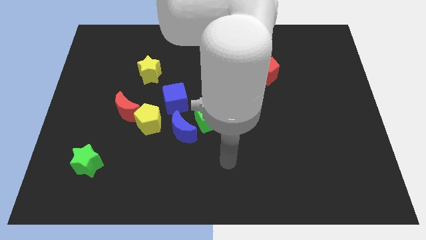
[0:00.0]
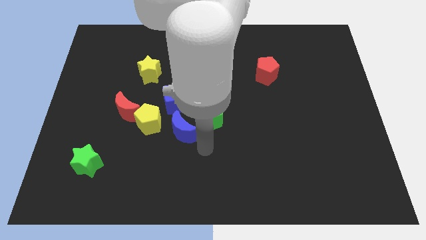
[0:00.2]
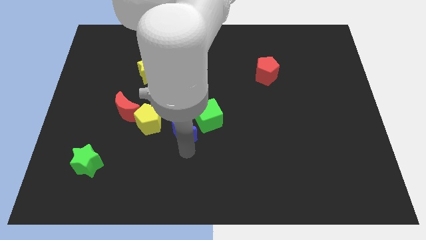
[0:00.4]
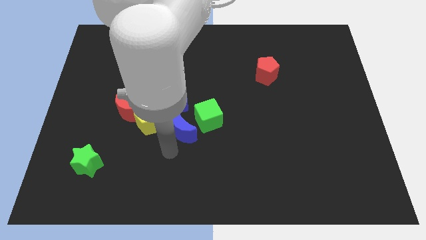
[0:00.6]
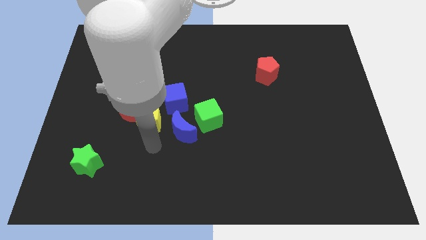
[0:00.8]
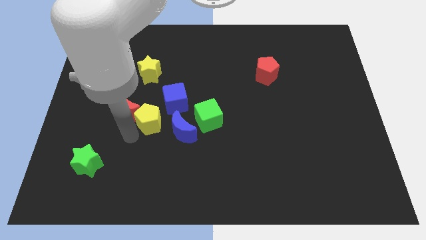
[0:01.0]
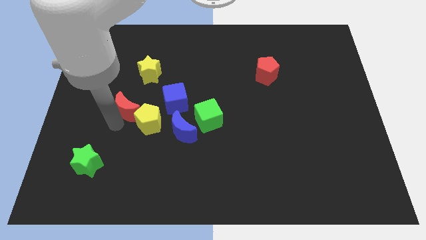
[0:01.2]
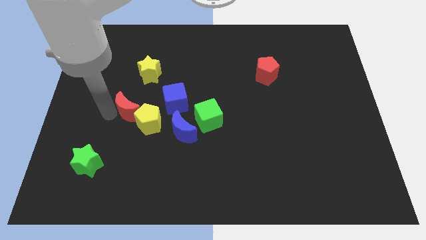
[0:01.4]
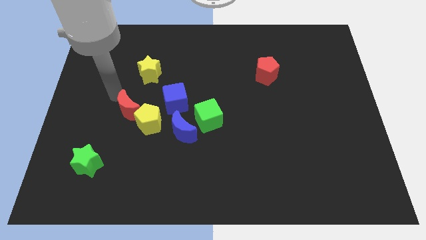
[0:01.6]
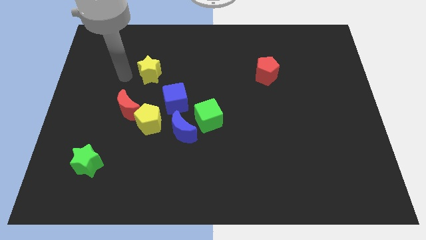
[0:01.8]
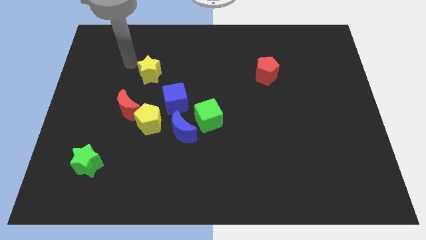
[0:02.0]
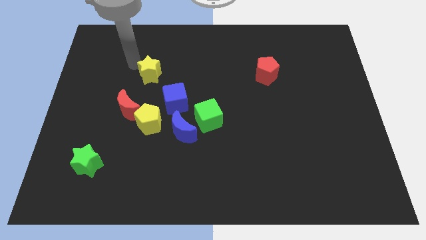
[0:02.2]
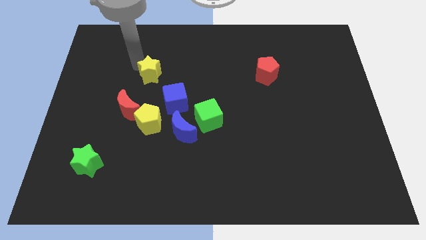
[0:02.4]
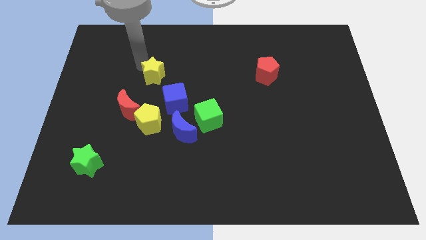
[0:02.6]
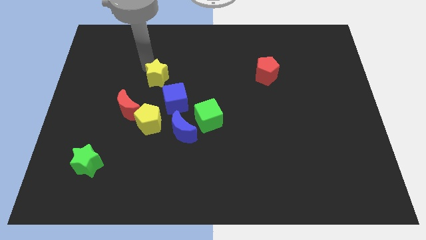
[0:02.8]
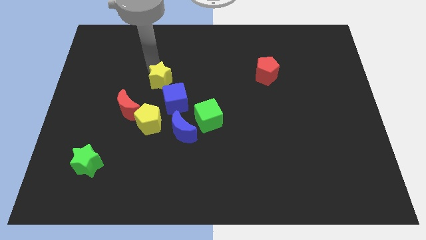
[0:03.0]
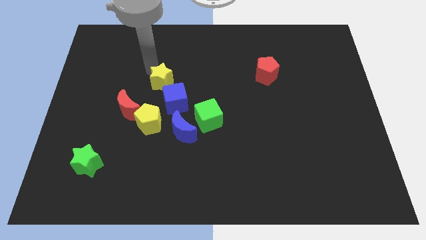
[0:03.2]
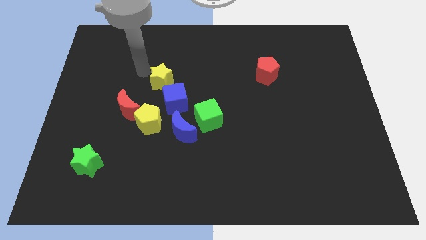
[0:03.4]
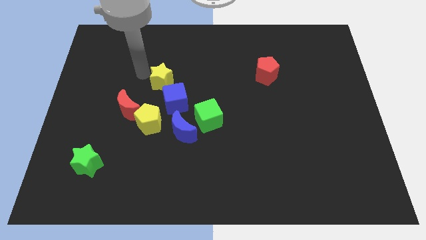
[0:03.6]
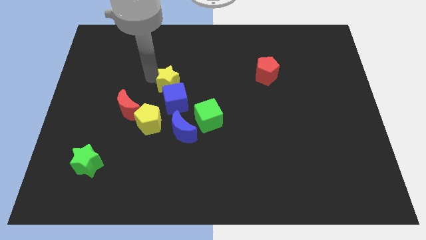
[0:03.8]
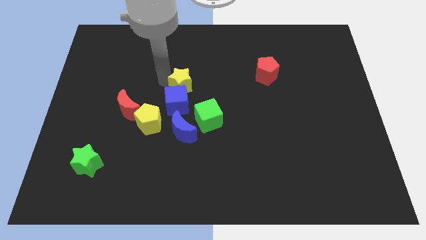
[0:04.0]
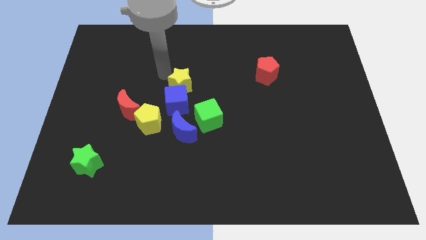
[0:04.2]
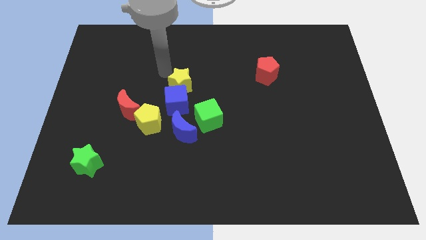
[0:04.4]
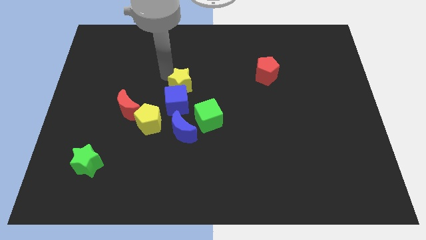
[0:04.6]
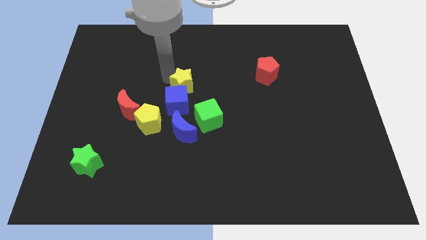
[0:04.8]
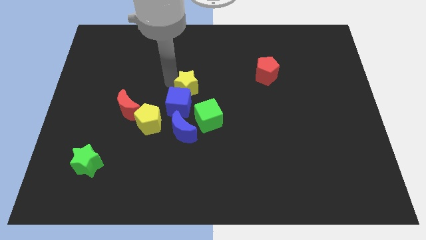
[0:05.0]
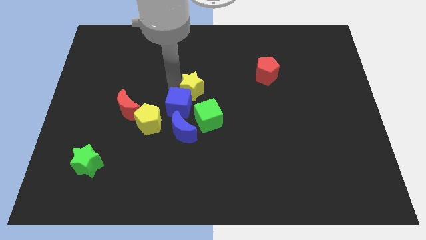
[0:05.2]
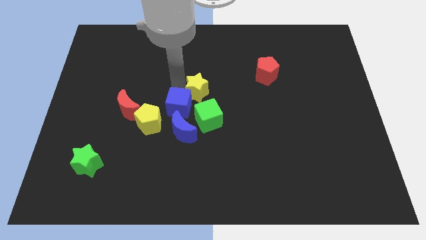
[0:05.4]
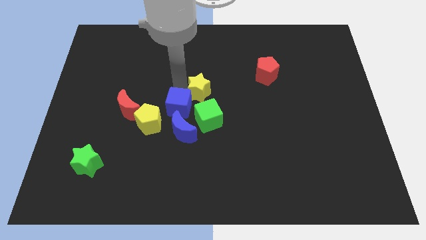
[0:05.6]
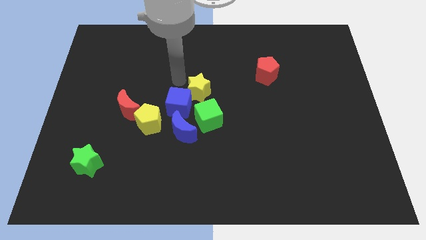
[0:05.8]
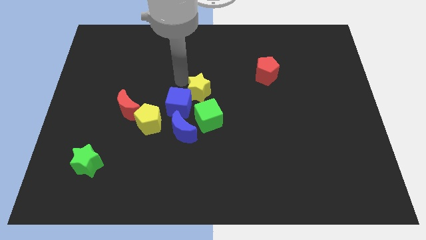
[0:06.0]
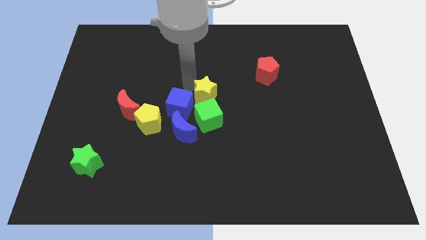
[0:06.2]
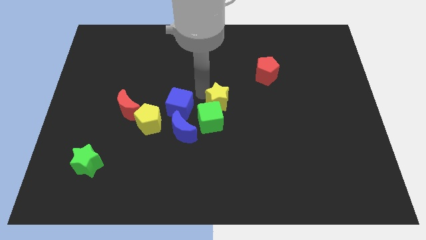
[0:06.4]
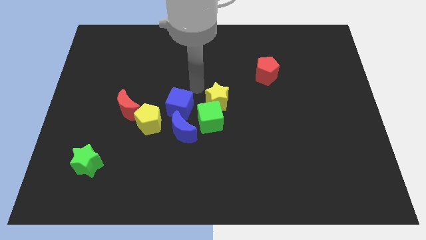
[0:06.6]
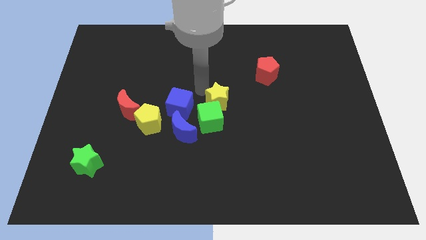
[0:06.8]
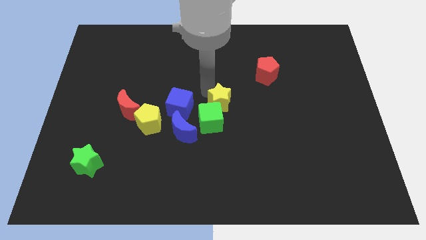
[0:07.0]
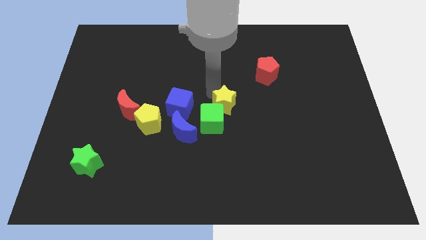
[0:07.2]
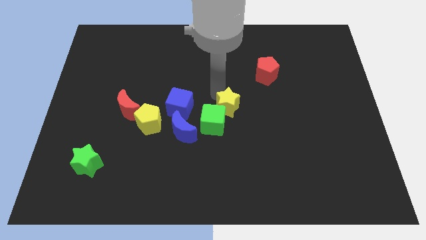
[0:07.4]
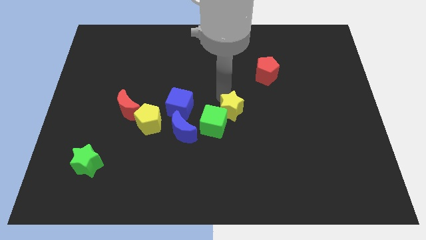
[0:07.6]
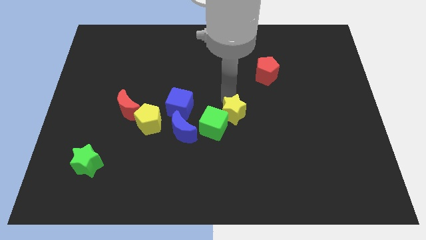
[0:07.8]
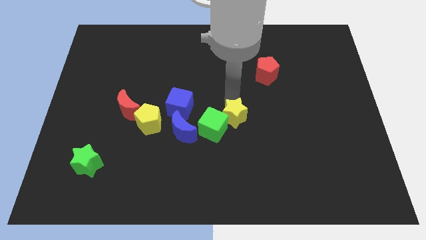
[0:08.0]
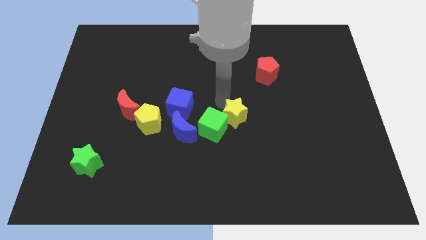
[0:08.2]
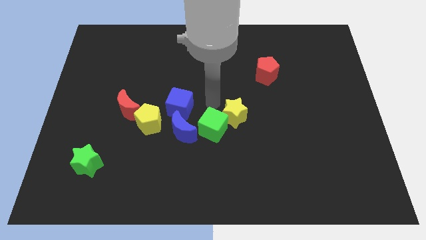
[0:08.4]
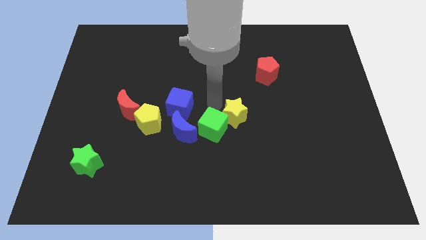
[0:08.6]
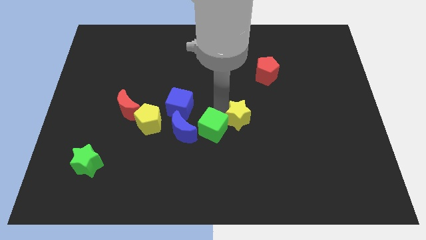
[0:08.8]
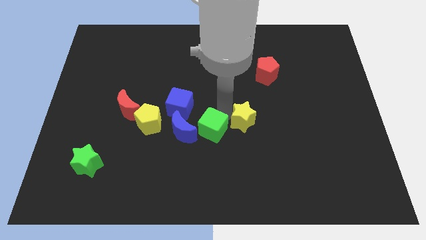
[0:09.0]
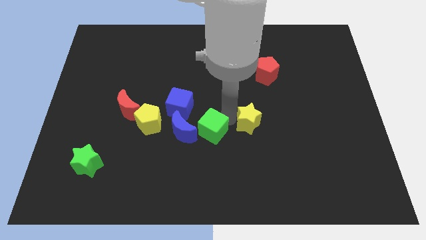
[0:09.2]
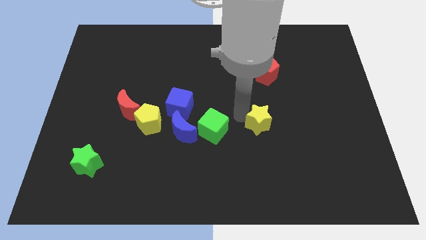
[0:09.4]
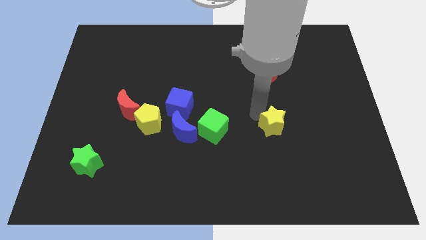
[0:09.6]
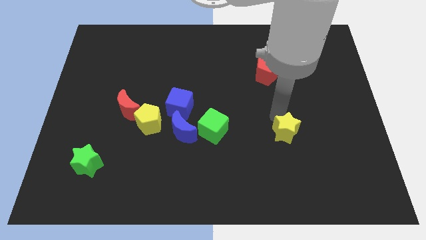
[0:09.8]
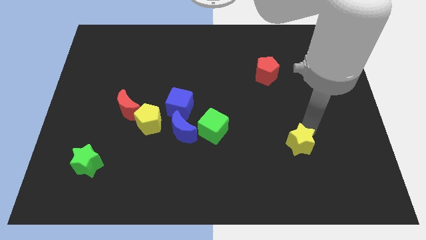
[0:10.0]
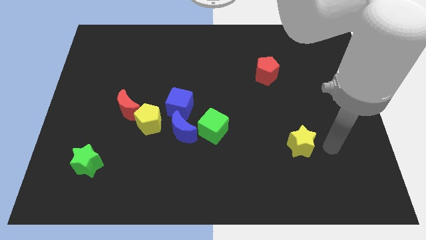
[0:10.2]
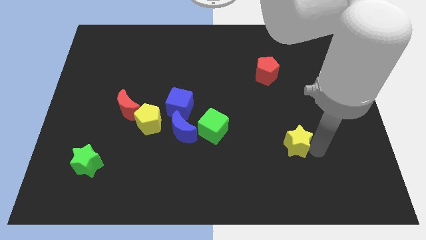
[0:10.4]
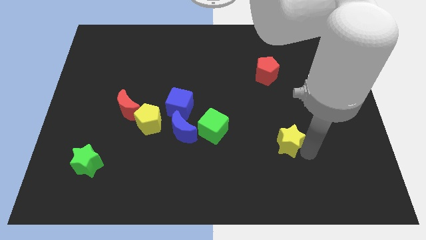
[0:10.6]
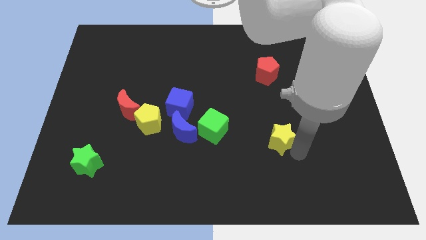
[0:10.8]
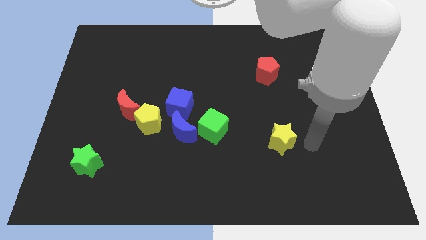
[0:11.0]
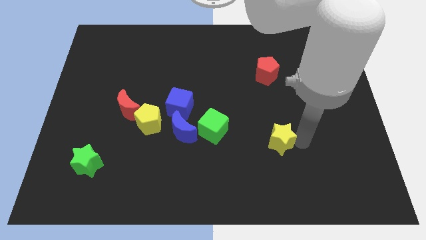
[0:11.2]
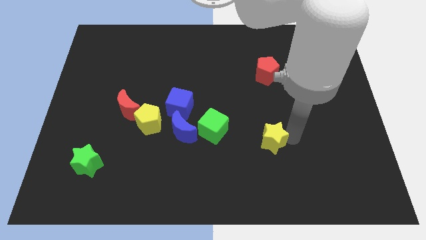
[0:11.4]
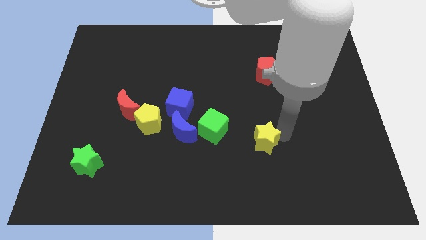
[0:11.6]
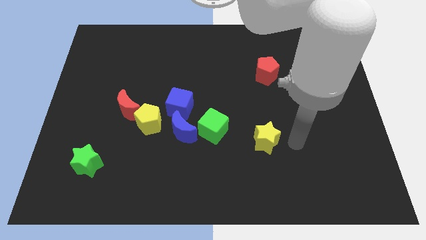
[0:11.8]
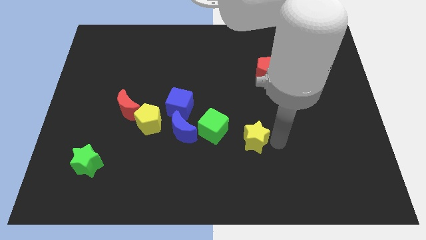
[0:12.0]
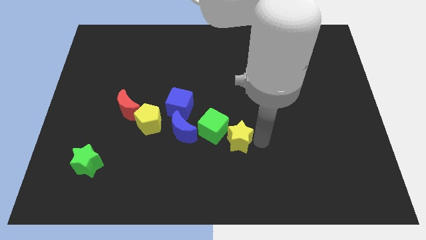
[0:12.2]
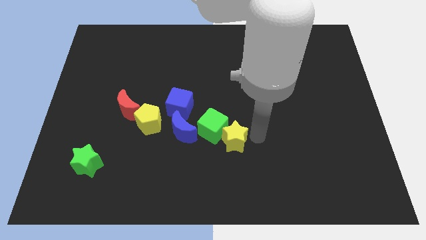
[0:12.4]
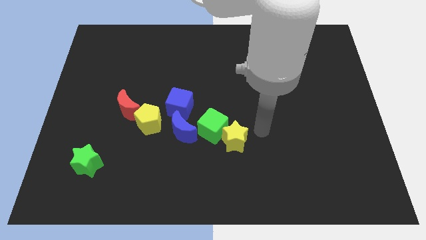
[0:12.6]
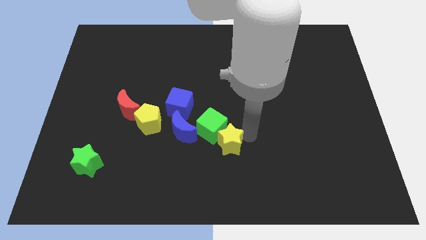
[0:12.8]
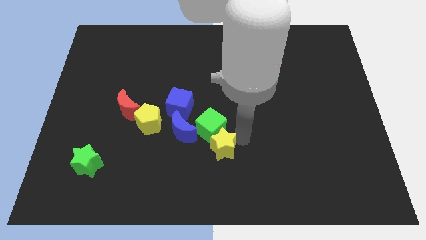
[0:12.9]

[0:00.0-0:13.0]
put the yellow star to the bottom right of the blue moon
